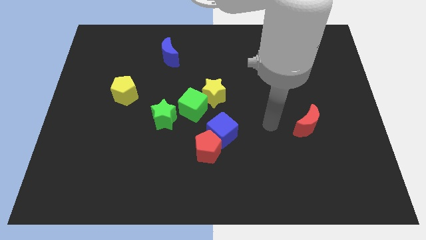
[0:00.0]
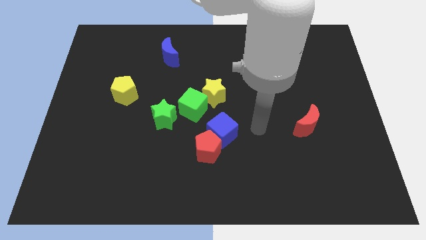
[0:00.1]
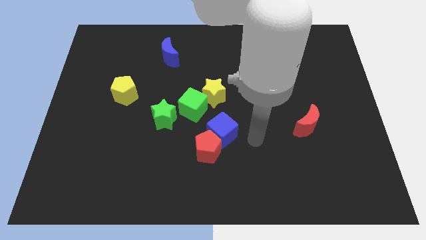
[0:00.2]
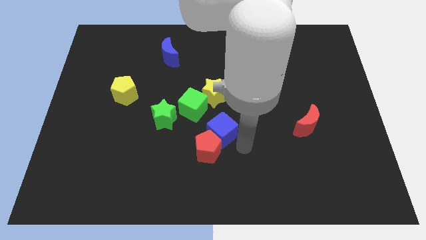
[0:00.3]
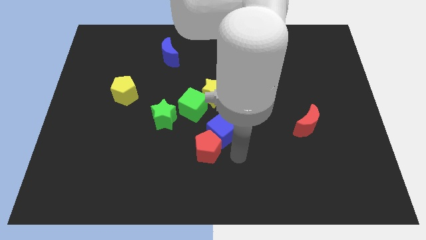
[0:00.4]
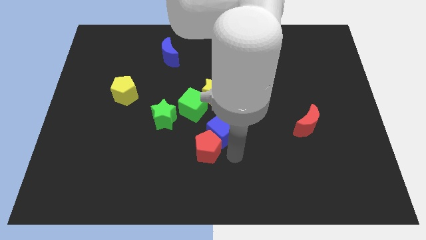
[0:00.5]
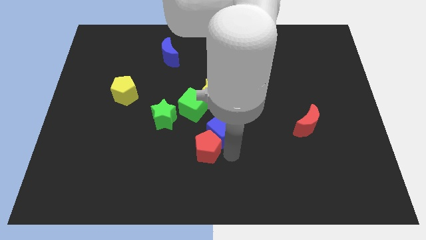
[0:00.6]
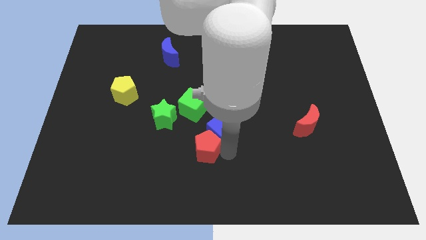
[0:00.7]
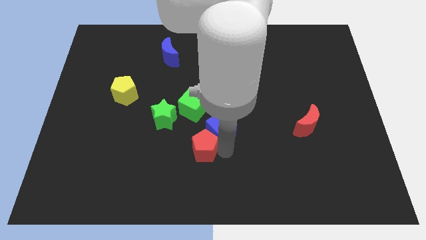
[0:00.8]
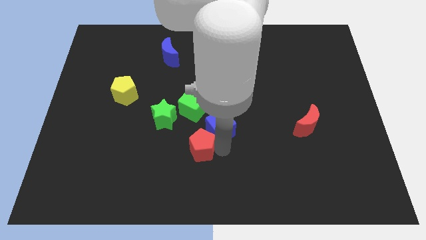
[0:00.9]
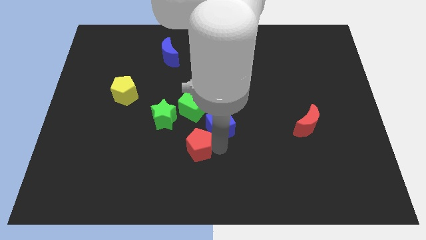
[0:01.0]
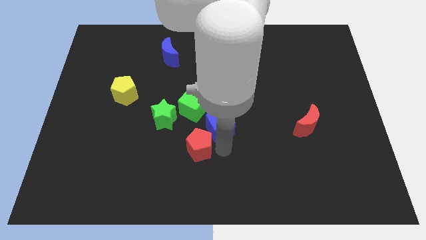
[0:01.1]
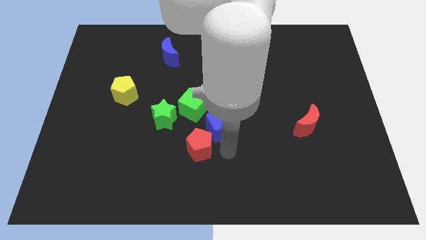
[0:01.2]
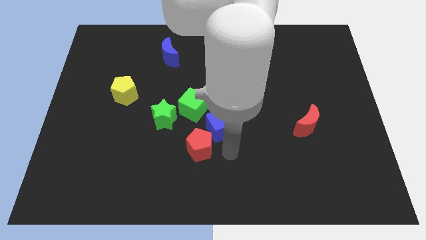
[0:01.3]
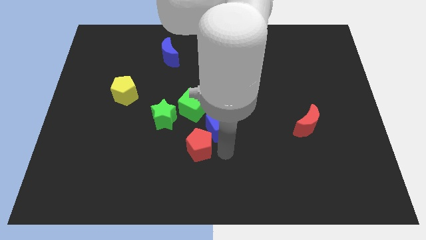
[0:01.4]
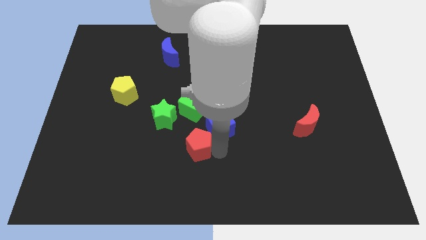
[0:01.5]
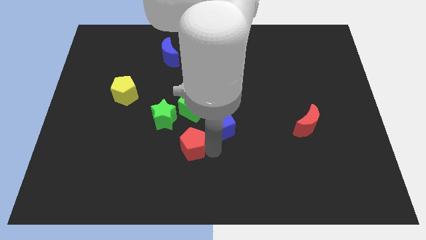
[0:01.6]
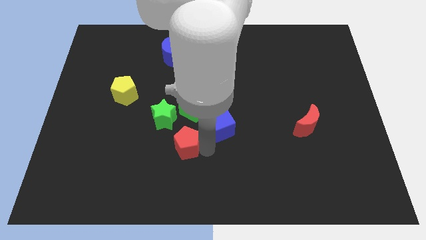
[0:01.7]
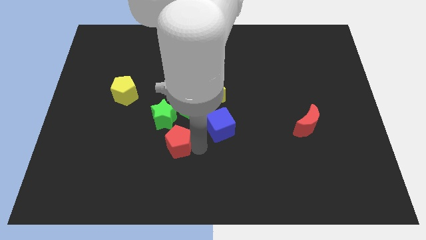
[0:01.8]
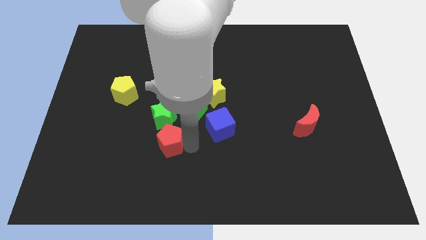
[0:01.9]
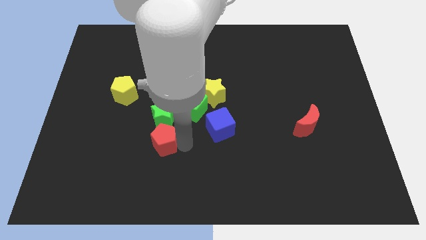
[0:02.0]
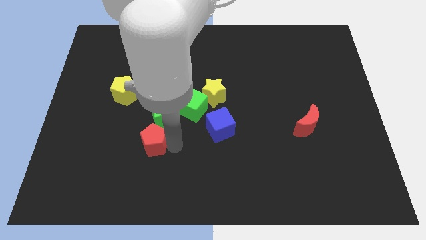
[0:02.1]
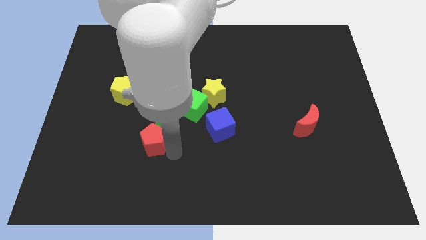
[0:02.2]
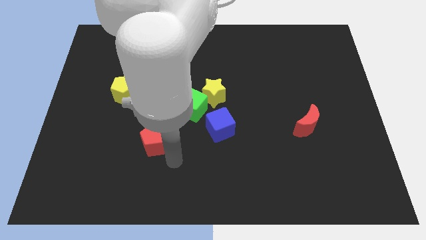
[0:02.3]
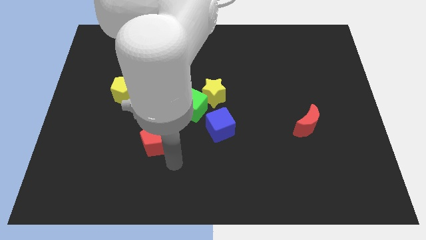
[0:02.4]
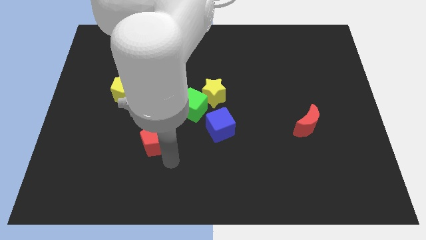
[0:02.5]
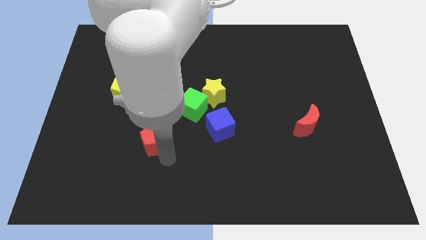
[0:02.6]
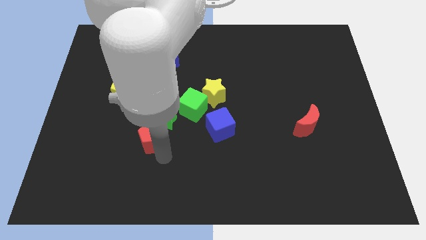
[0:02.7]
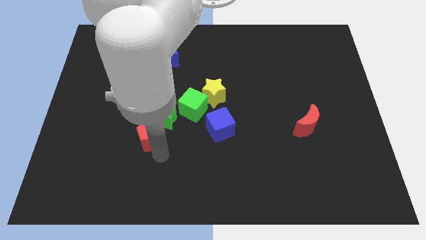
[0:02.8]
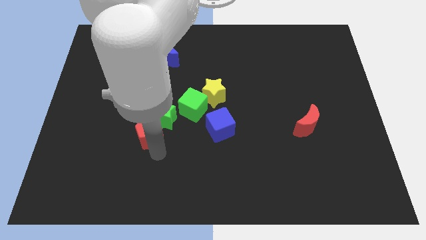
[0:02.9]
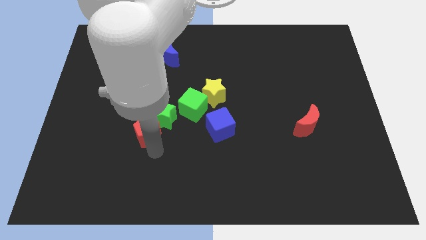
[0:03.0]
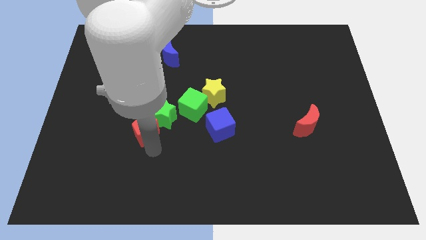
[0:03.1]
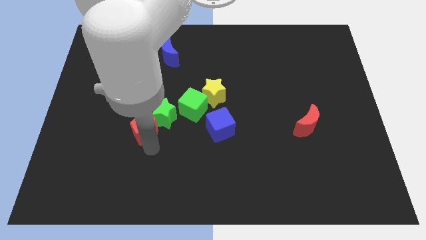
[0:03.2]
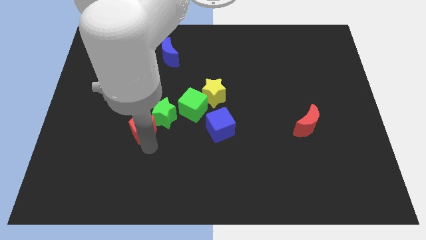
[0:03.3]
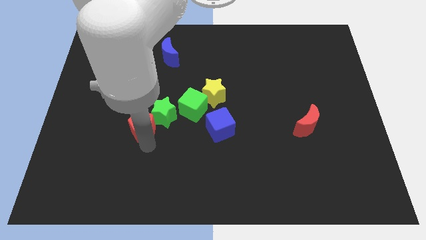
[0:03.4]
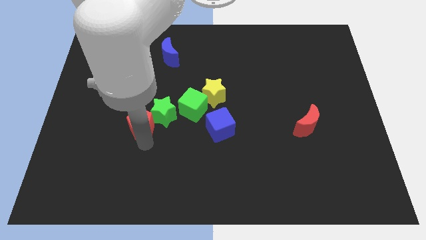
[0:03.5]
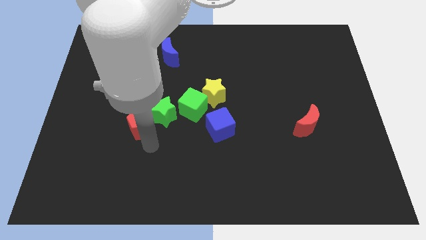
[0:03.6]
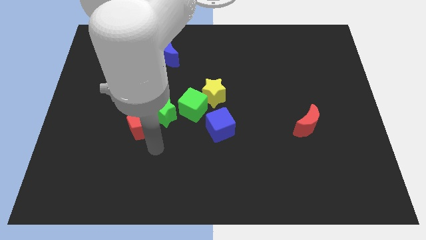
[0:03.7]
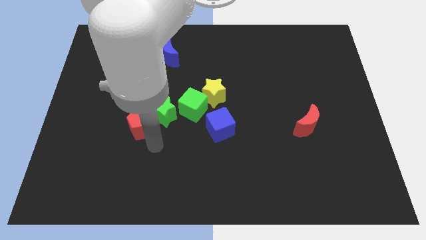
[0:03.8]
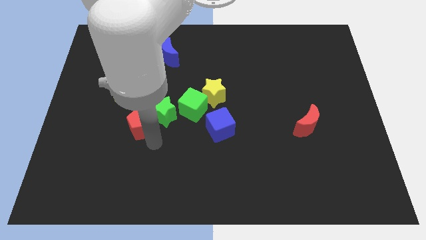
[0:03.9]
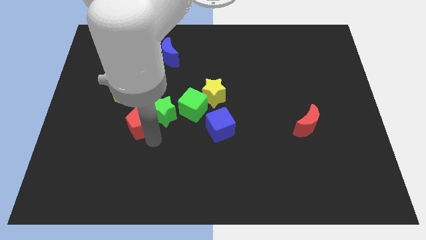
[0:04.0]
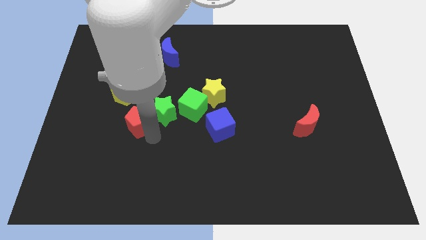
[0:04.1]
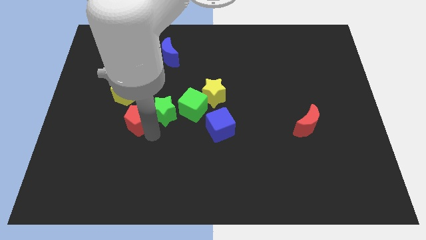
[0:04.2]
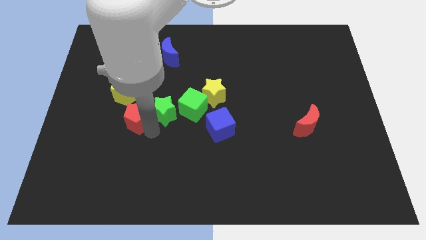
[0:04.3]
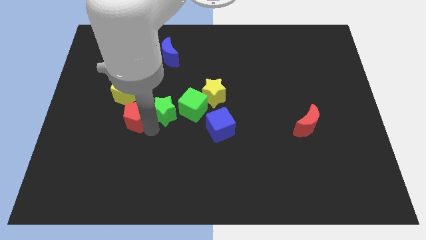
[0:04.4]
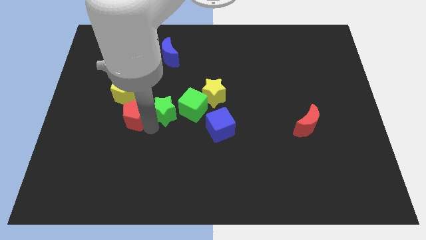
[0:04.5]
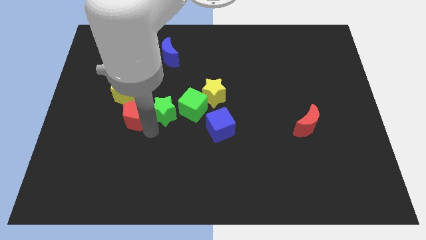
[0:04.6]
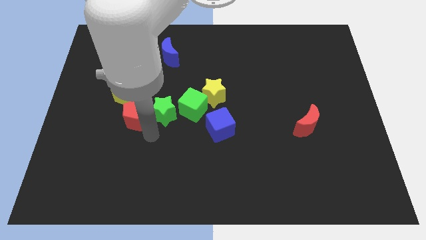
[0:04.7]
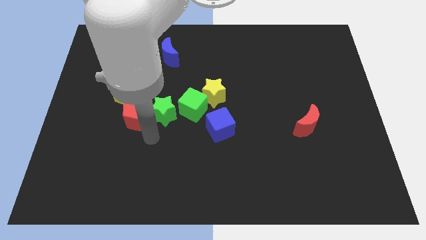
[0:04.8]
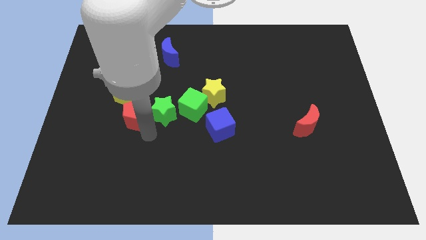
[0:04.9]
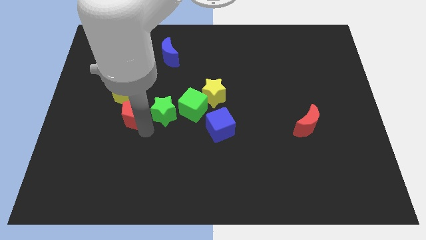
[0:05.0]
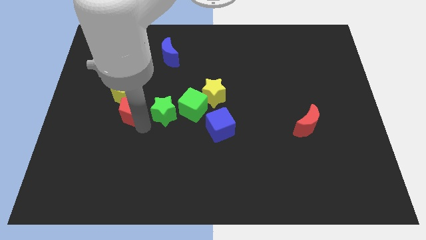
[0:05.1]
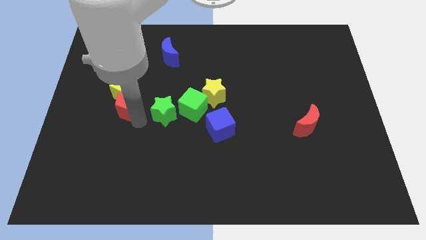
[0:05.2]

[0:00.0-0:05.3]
move the red pentagon towards the yellow pentagon

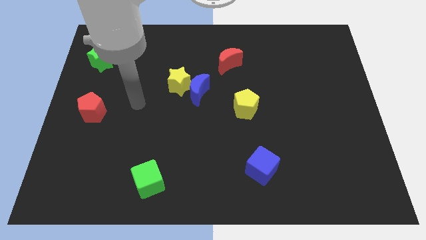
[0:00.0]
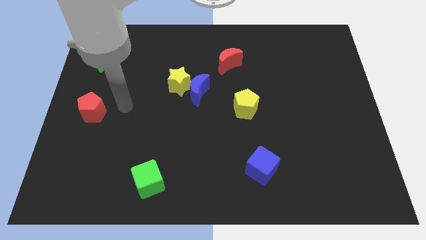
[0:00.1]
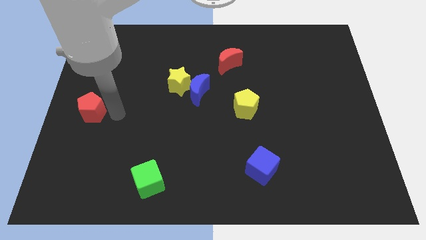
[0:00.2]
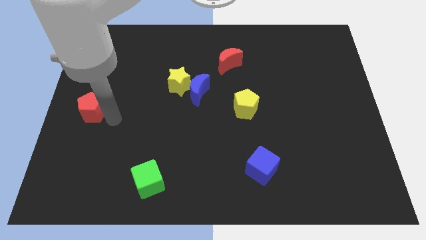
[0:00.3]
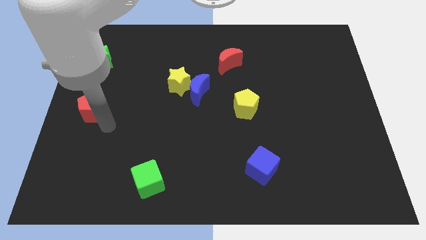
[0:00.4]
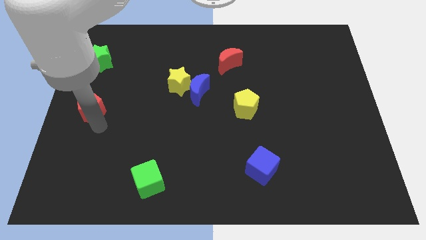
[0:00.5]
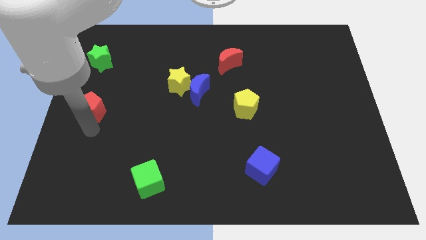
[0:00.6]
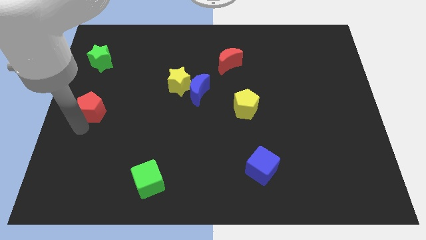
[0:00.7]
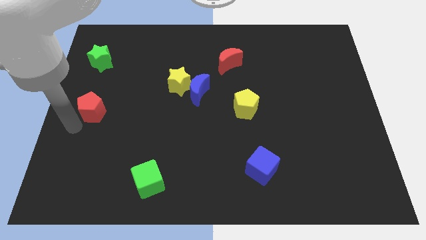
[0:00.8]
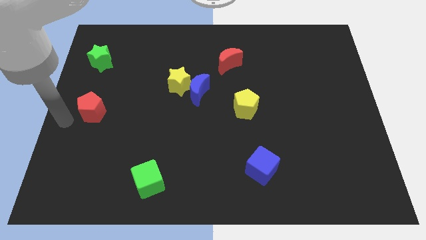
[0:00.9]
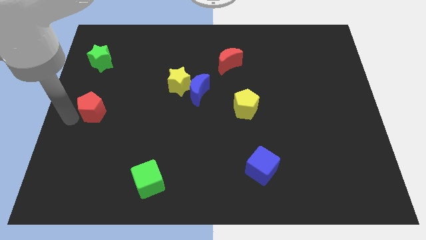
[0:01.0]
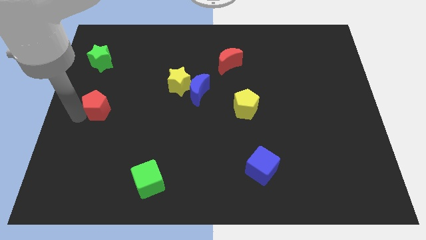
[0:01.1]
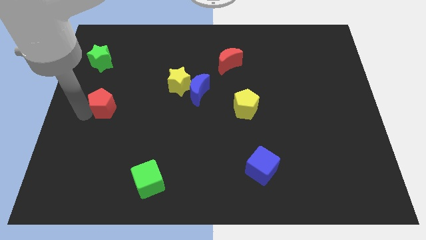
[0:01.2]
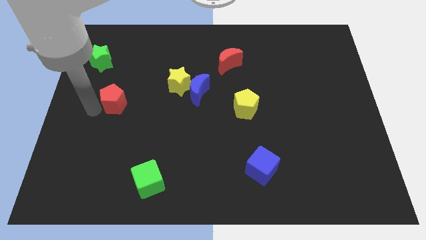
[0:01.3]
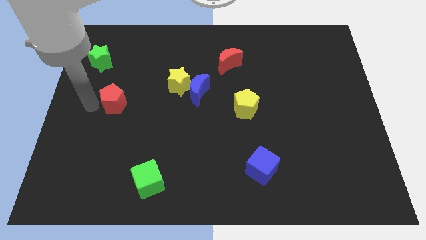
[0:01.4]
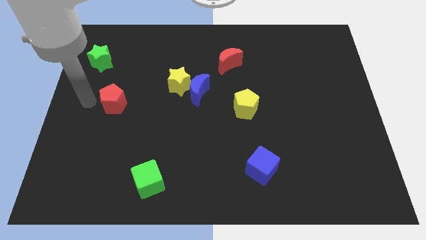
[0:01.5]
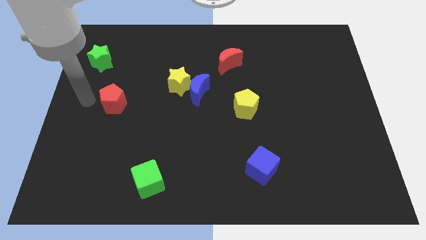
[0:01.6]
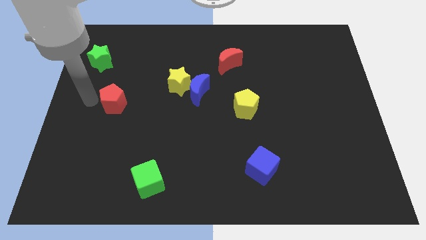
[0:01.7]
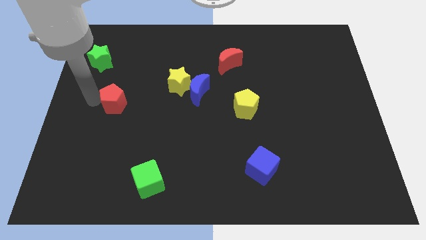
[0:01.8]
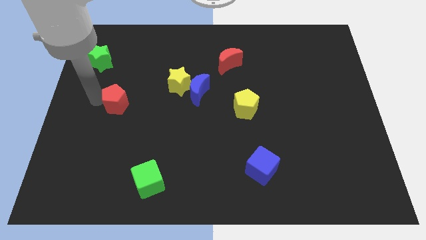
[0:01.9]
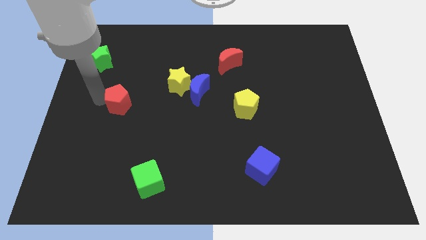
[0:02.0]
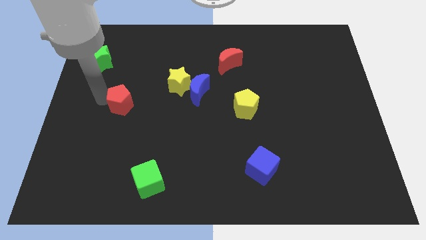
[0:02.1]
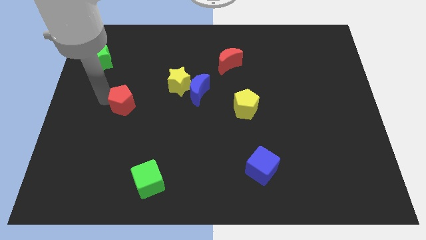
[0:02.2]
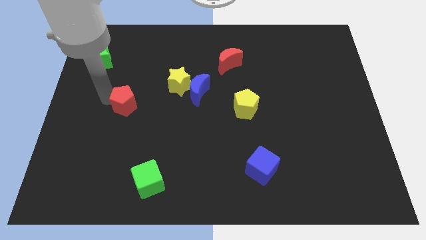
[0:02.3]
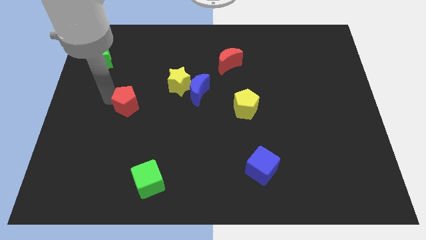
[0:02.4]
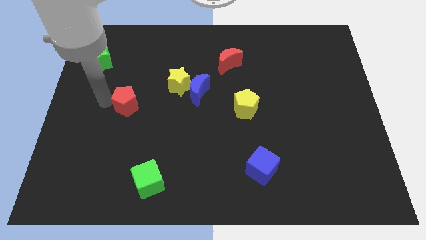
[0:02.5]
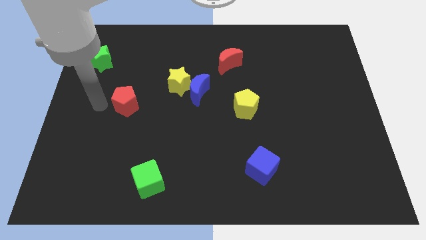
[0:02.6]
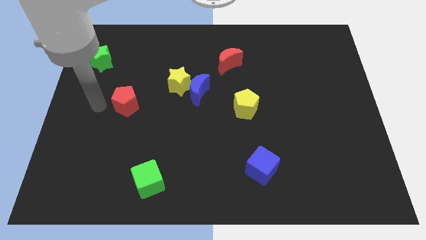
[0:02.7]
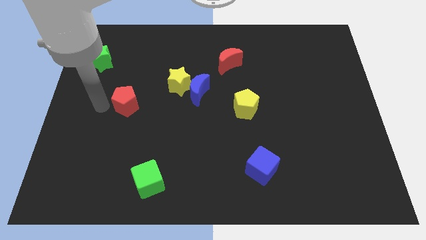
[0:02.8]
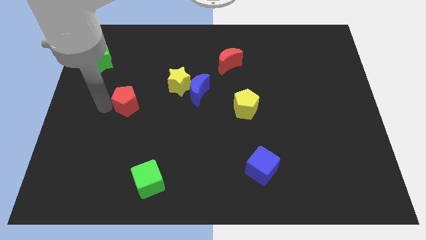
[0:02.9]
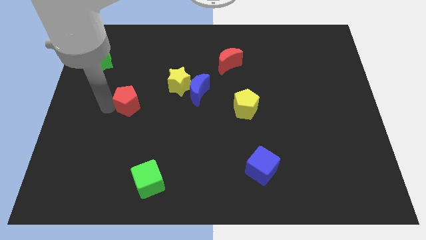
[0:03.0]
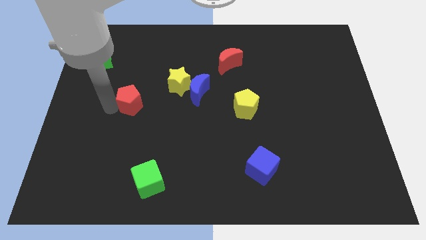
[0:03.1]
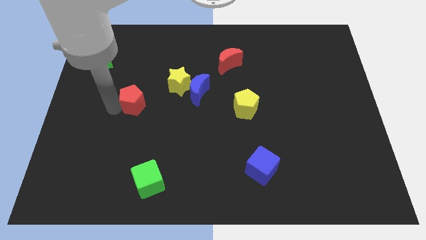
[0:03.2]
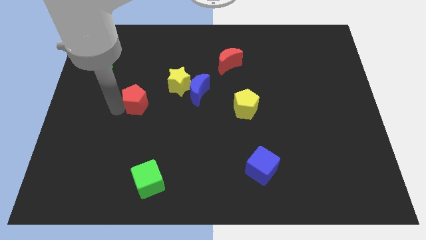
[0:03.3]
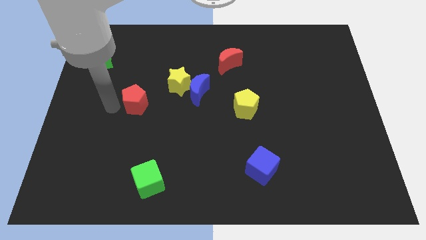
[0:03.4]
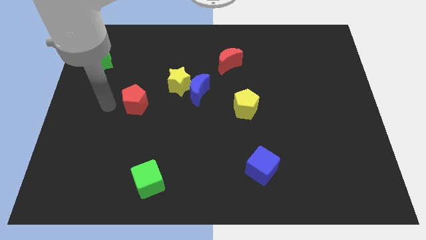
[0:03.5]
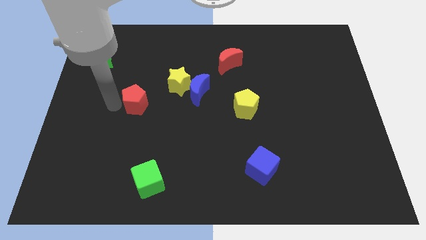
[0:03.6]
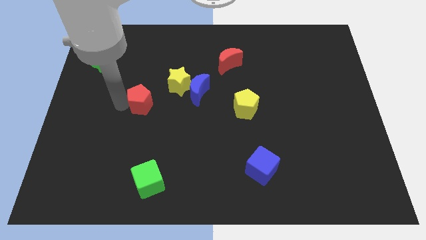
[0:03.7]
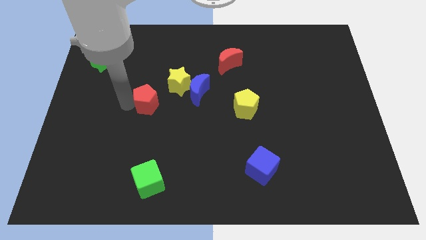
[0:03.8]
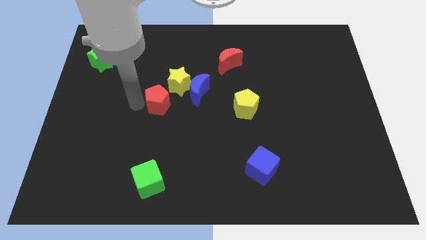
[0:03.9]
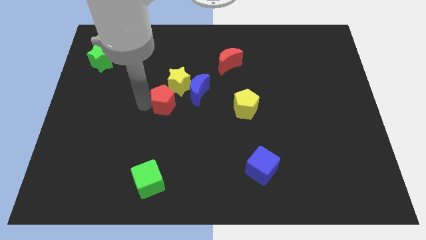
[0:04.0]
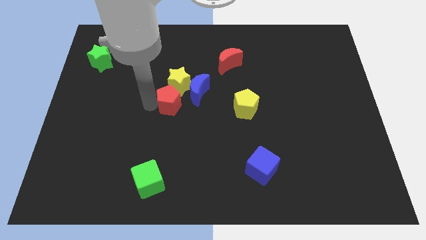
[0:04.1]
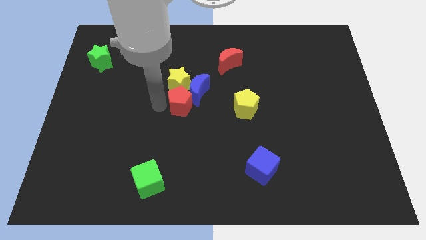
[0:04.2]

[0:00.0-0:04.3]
slide the red pentagon close to the blue moon
